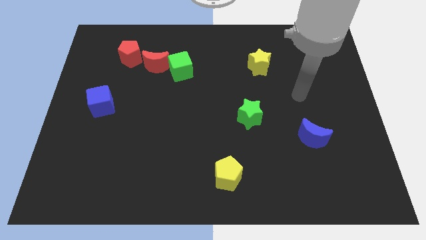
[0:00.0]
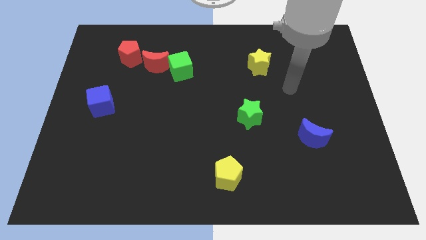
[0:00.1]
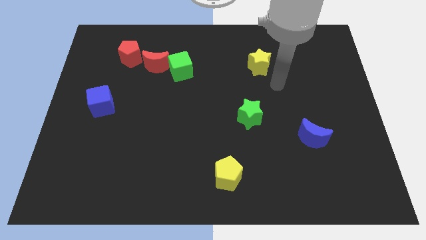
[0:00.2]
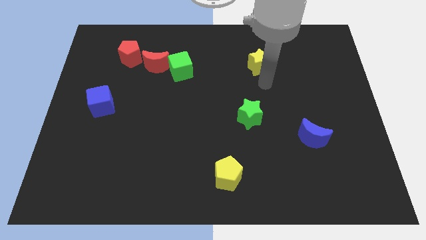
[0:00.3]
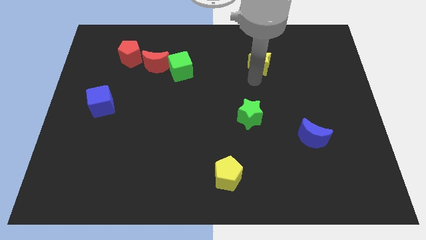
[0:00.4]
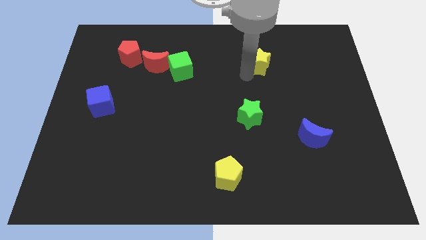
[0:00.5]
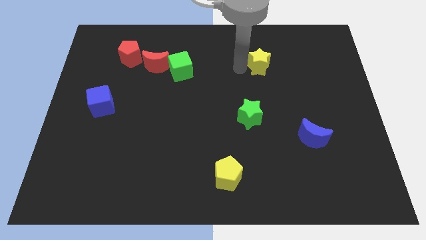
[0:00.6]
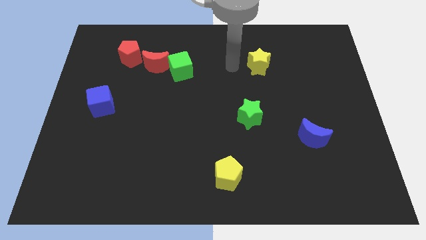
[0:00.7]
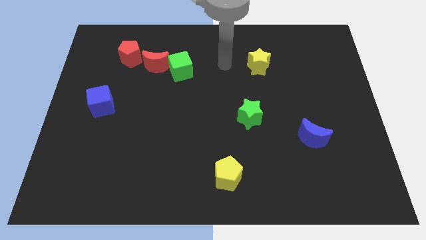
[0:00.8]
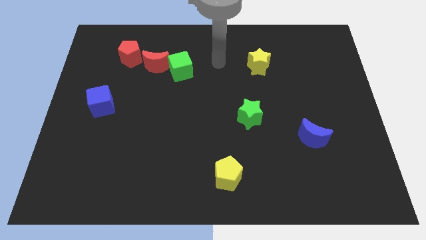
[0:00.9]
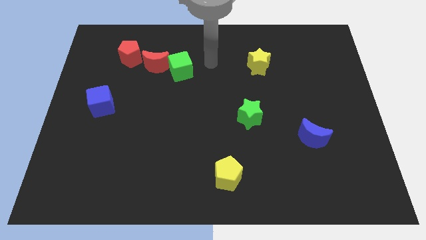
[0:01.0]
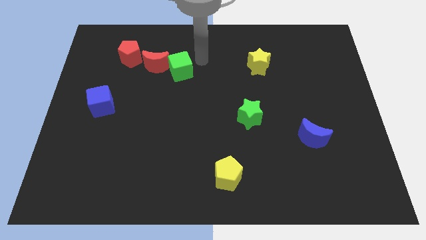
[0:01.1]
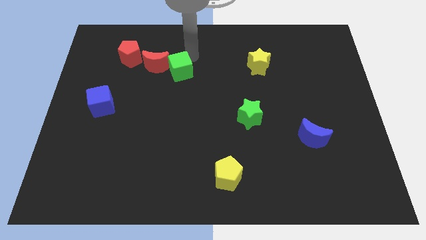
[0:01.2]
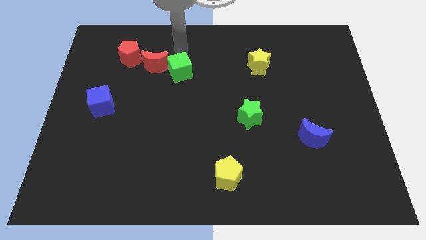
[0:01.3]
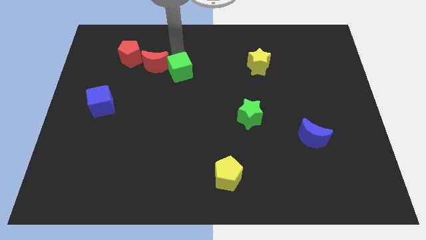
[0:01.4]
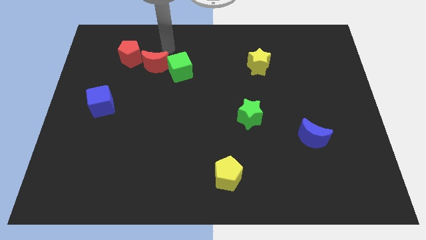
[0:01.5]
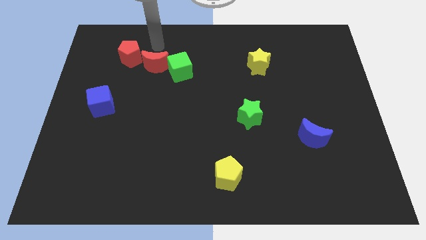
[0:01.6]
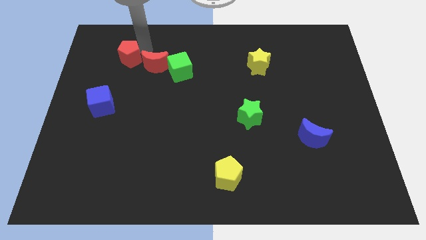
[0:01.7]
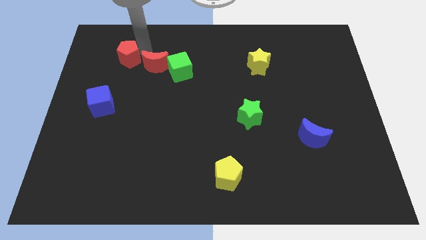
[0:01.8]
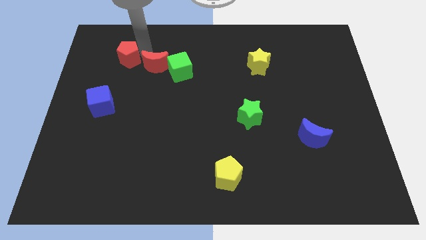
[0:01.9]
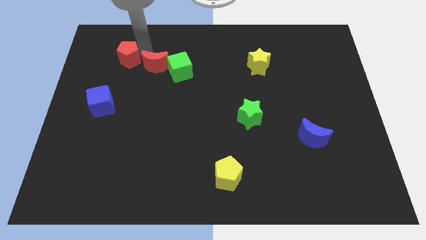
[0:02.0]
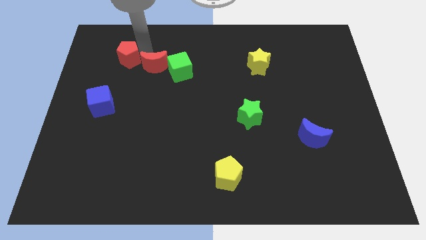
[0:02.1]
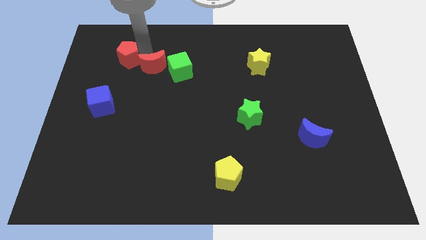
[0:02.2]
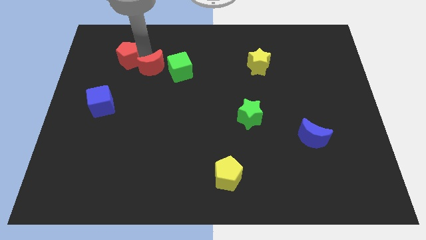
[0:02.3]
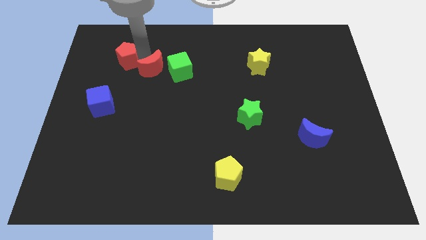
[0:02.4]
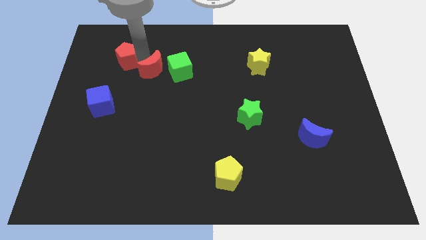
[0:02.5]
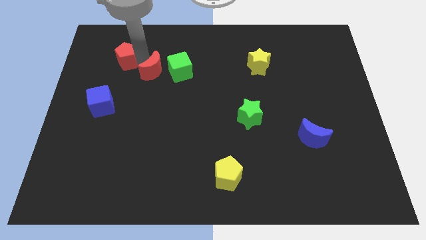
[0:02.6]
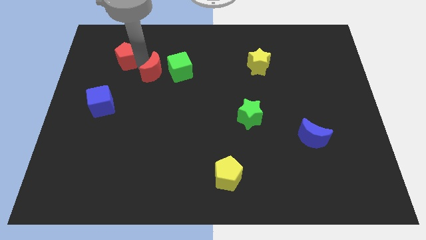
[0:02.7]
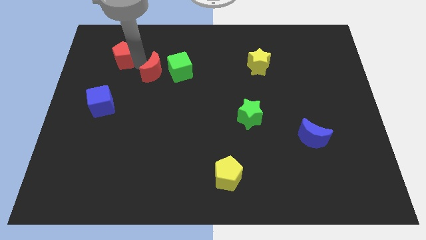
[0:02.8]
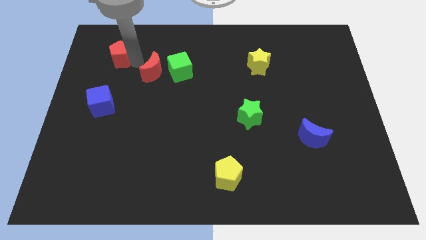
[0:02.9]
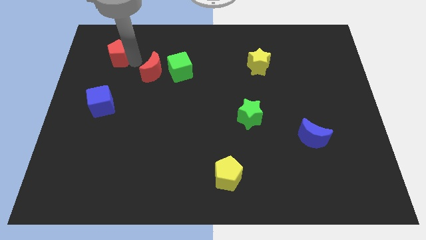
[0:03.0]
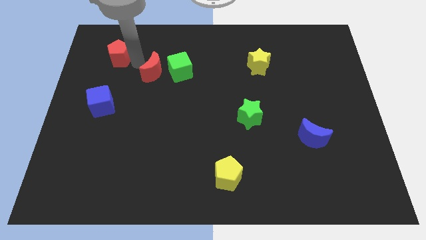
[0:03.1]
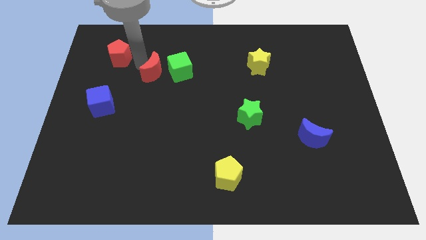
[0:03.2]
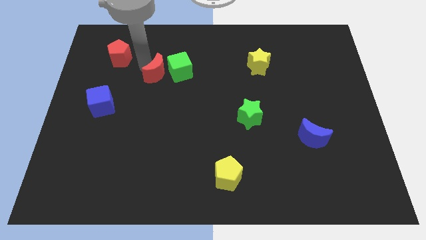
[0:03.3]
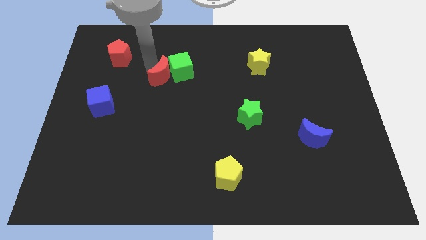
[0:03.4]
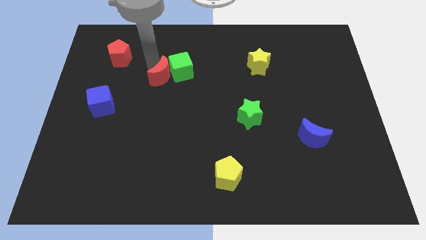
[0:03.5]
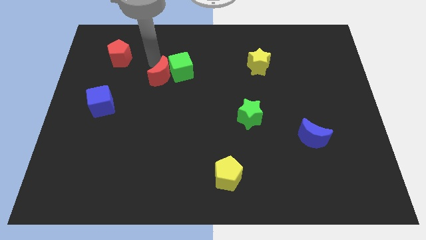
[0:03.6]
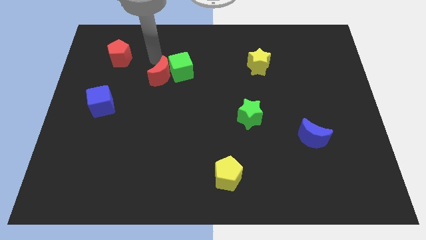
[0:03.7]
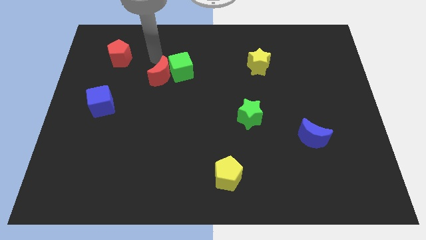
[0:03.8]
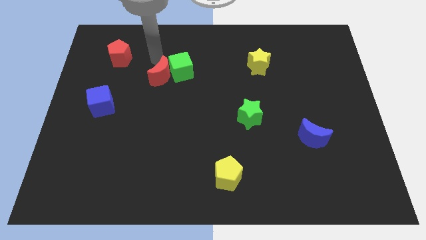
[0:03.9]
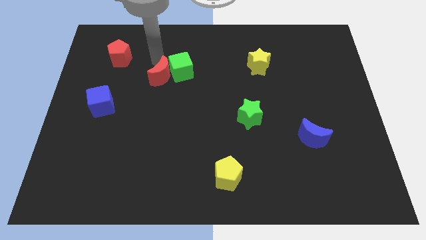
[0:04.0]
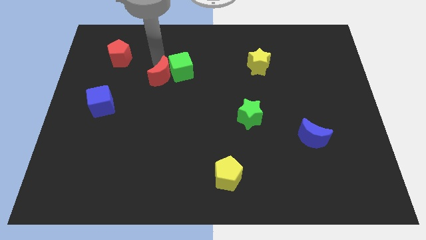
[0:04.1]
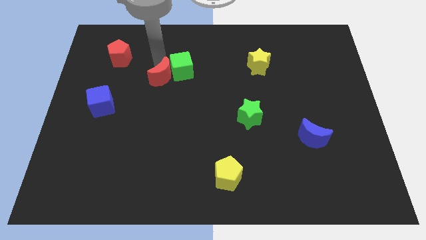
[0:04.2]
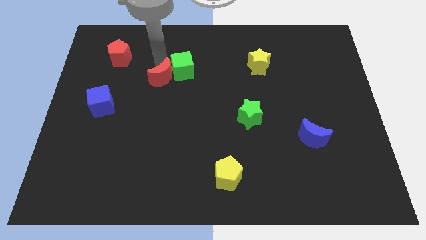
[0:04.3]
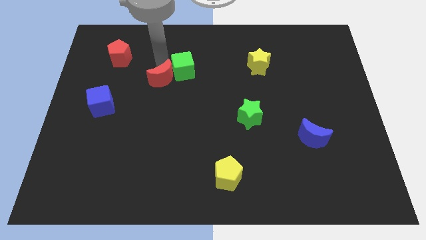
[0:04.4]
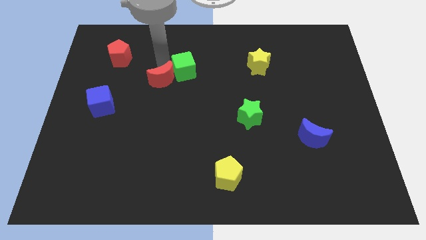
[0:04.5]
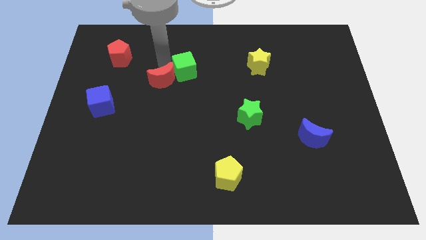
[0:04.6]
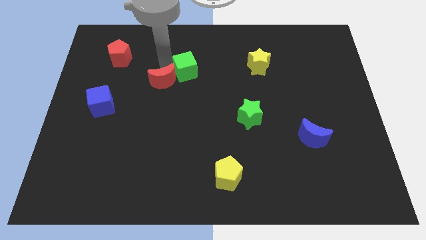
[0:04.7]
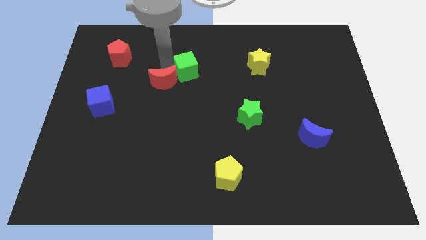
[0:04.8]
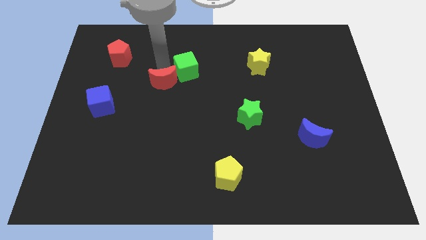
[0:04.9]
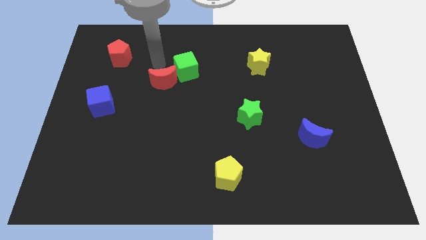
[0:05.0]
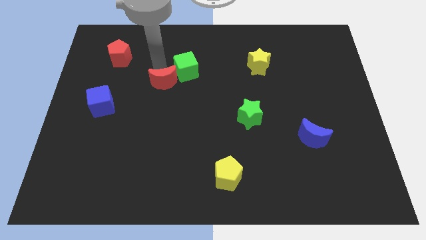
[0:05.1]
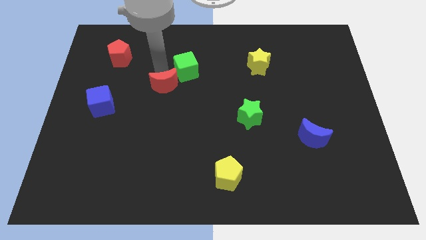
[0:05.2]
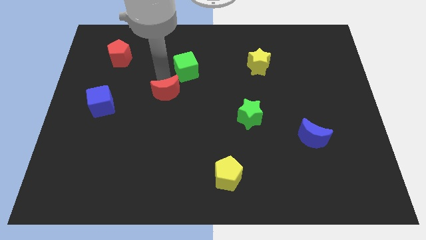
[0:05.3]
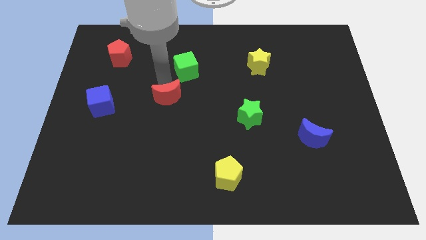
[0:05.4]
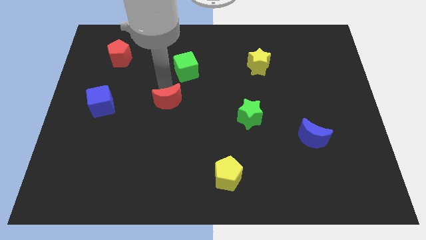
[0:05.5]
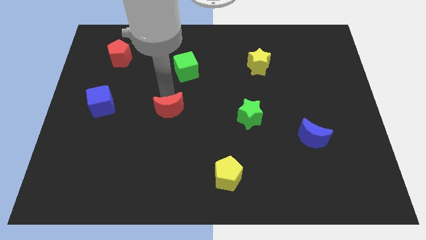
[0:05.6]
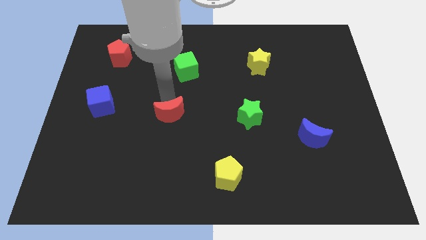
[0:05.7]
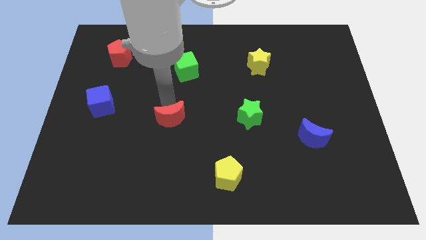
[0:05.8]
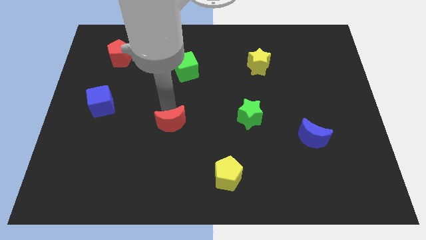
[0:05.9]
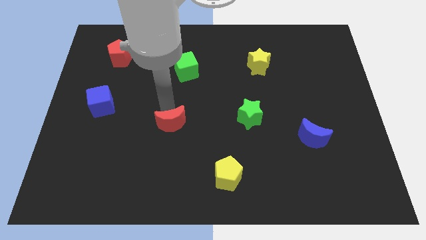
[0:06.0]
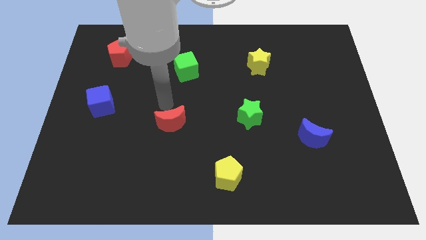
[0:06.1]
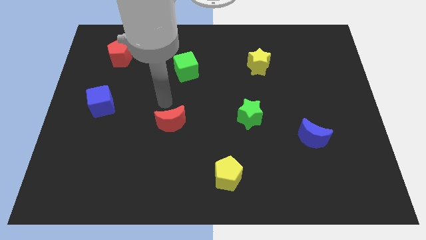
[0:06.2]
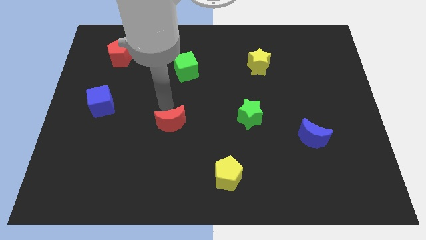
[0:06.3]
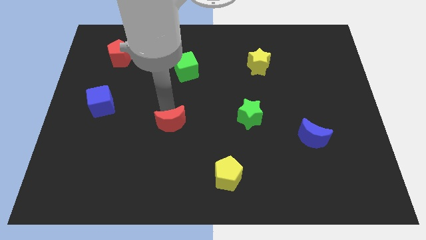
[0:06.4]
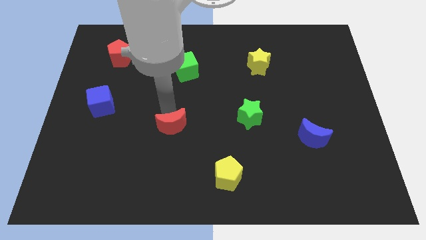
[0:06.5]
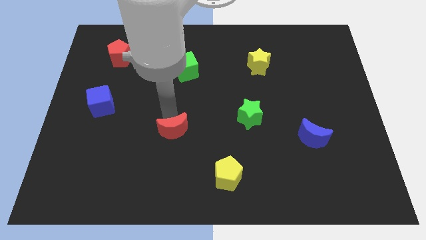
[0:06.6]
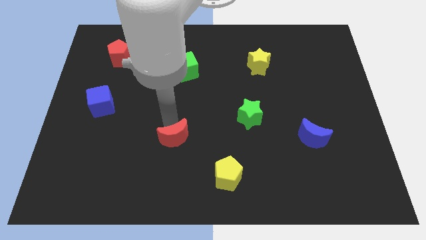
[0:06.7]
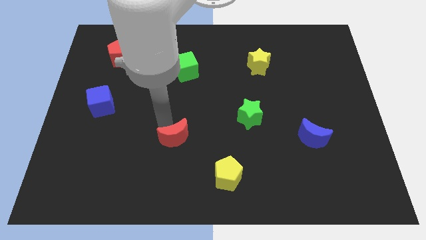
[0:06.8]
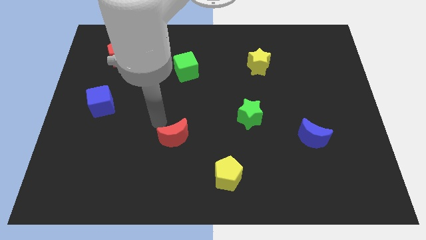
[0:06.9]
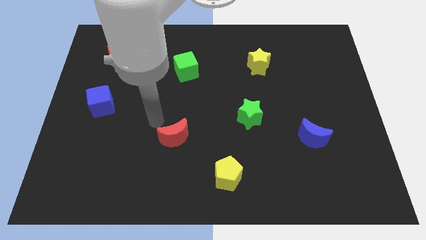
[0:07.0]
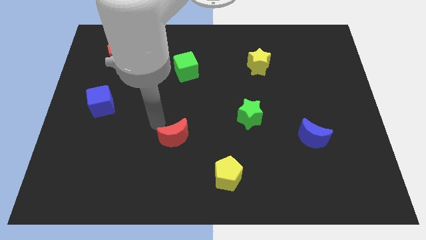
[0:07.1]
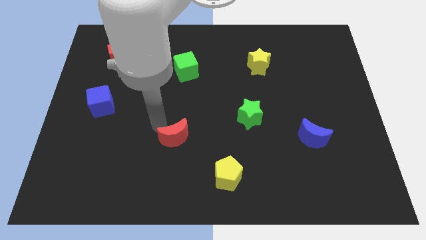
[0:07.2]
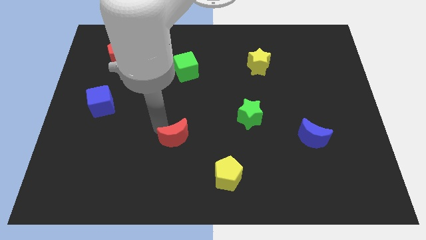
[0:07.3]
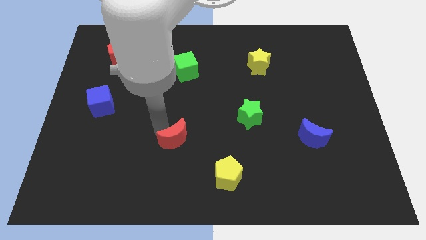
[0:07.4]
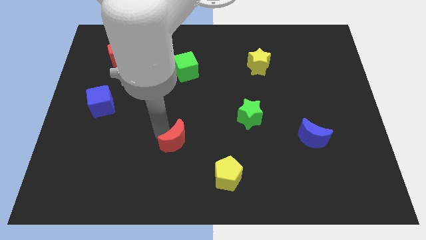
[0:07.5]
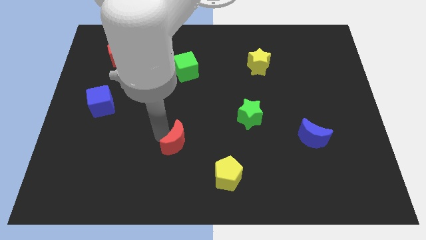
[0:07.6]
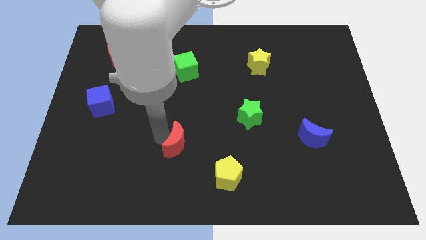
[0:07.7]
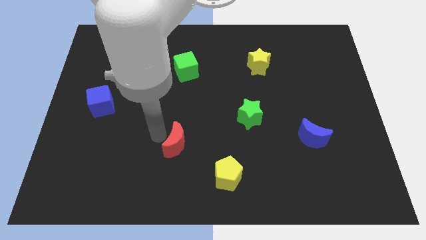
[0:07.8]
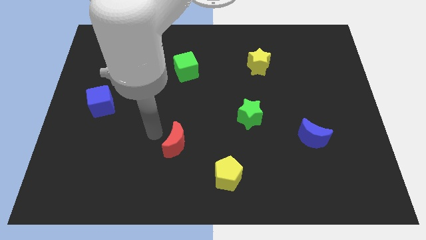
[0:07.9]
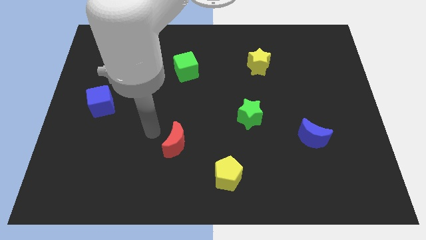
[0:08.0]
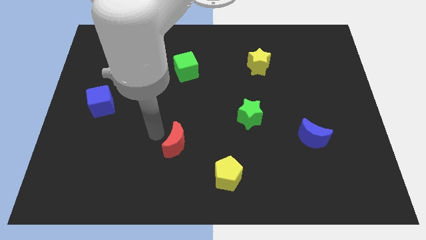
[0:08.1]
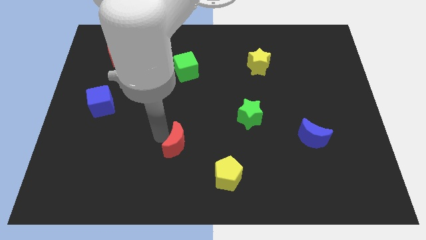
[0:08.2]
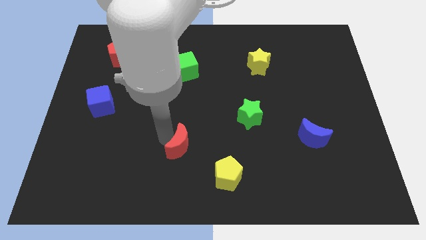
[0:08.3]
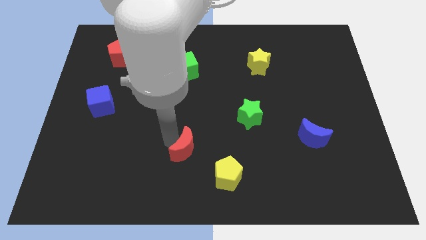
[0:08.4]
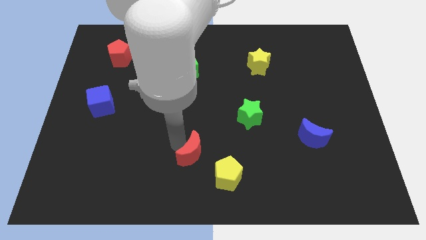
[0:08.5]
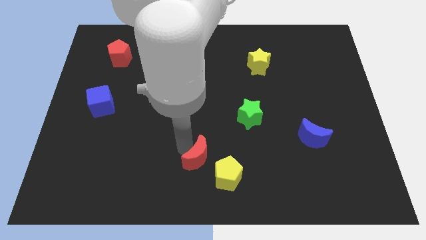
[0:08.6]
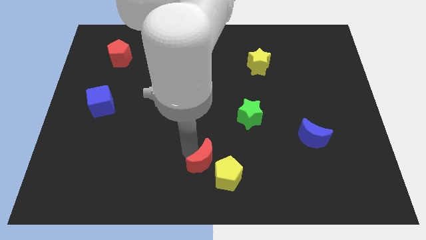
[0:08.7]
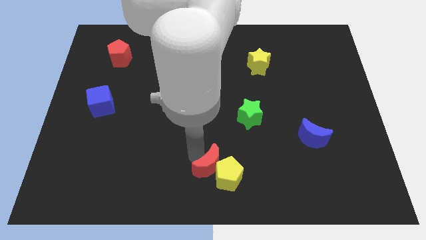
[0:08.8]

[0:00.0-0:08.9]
slide the red moon next to the yellow pentagon
